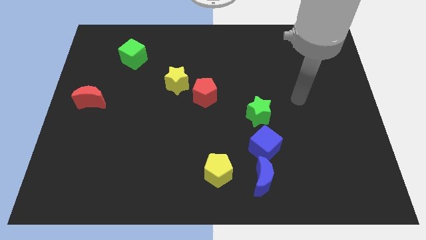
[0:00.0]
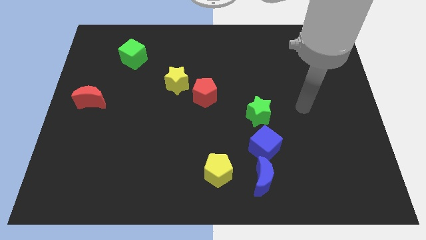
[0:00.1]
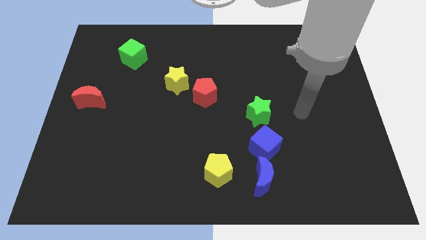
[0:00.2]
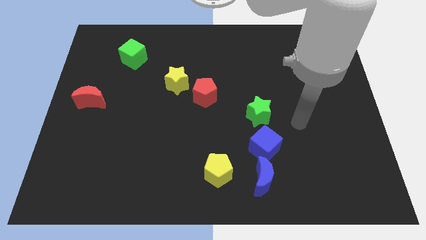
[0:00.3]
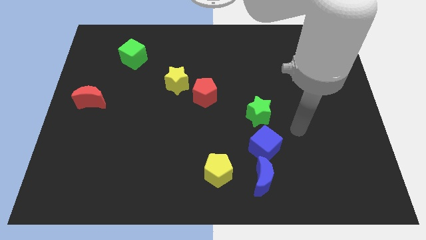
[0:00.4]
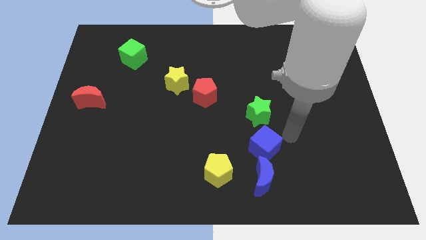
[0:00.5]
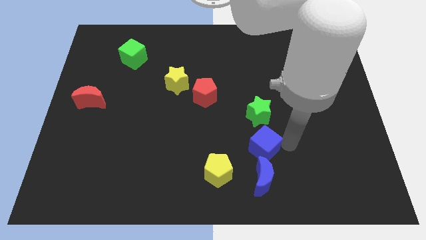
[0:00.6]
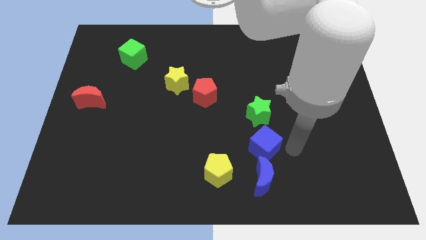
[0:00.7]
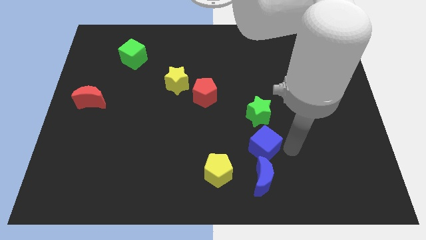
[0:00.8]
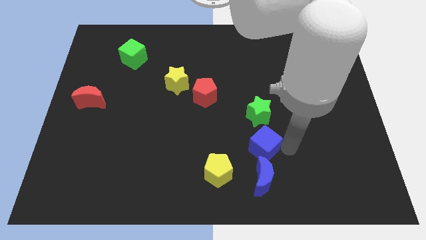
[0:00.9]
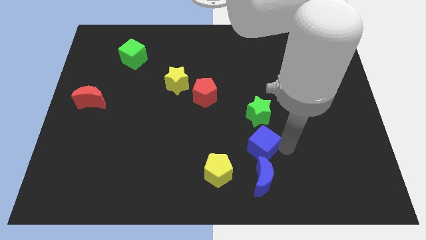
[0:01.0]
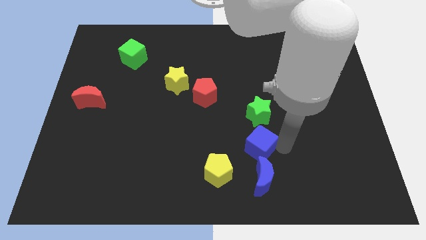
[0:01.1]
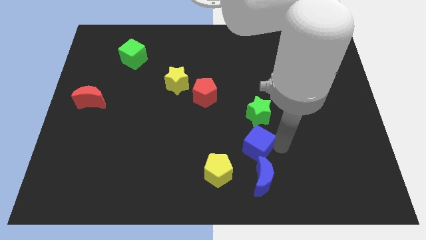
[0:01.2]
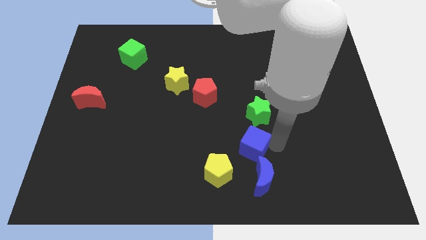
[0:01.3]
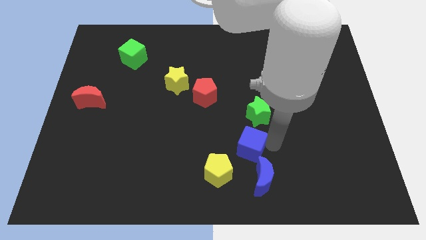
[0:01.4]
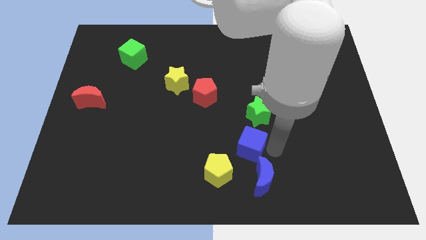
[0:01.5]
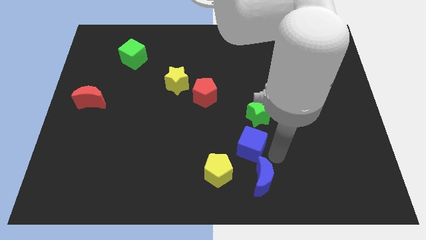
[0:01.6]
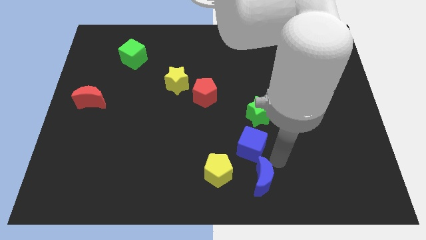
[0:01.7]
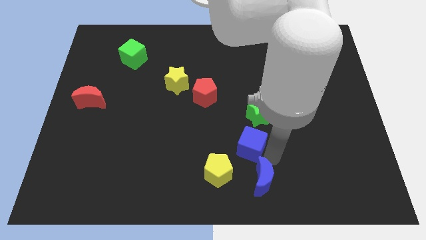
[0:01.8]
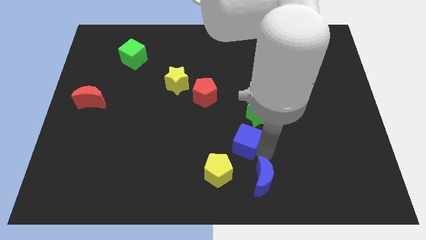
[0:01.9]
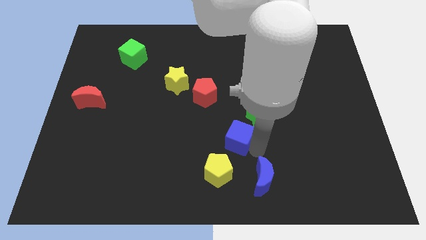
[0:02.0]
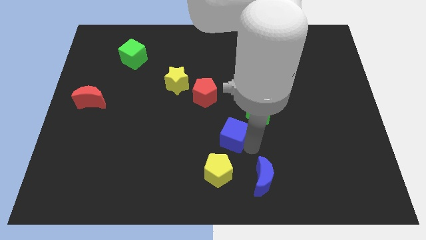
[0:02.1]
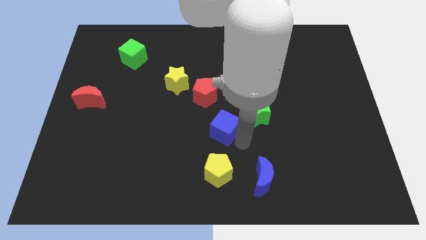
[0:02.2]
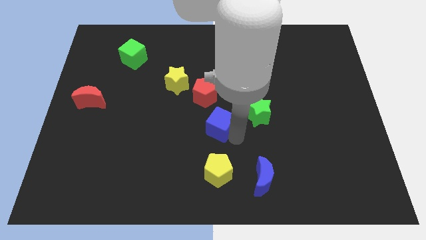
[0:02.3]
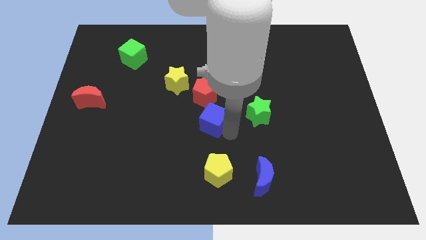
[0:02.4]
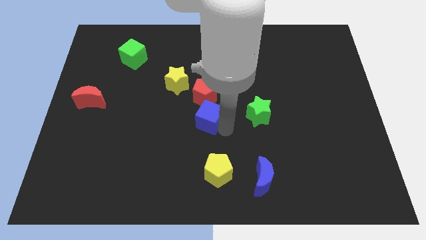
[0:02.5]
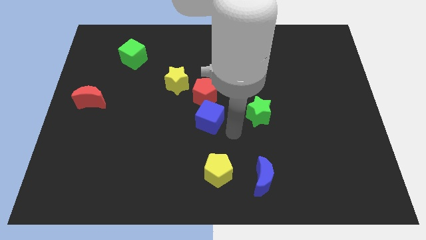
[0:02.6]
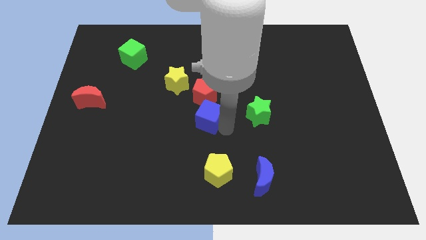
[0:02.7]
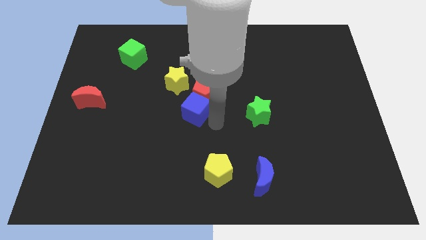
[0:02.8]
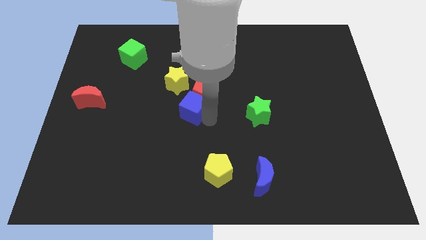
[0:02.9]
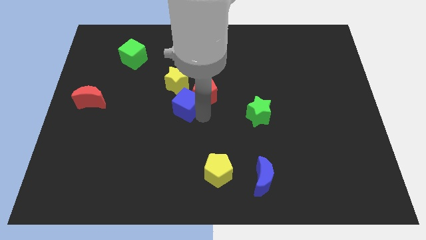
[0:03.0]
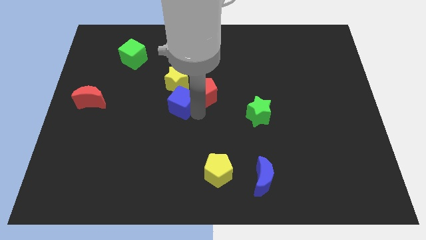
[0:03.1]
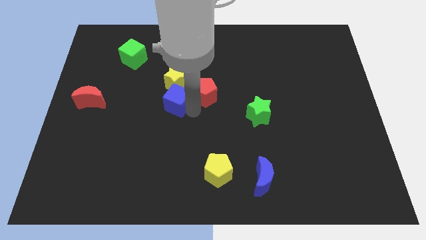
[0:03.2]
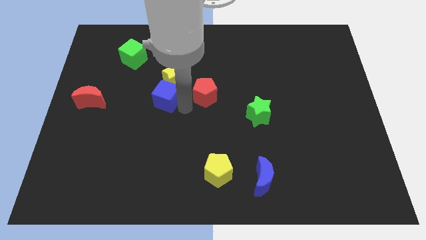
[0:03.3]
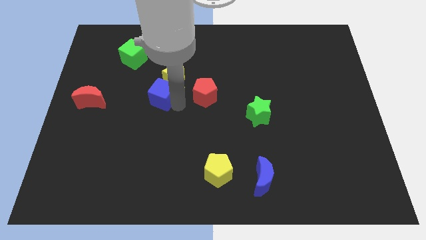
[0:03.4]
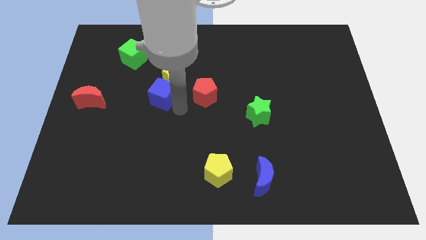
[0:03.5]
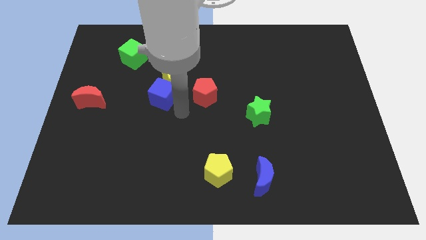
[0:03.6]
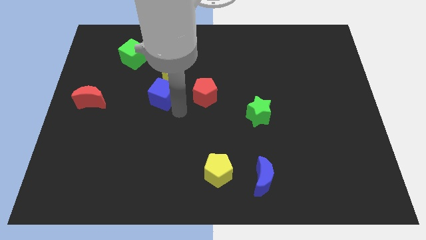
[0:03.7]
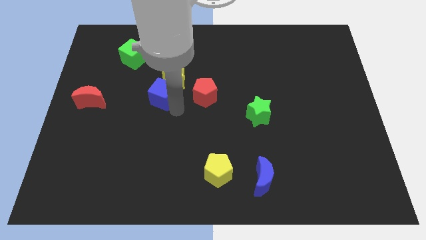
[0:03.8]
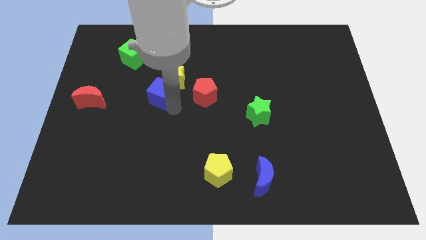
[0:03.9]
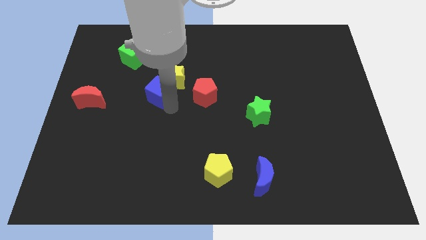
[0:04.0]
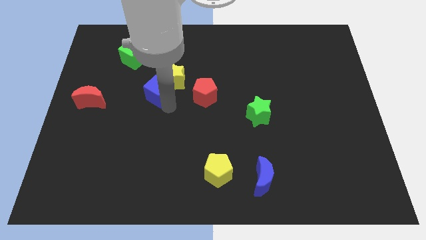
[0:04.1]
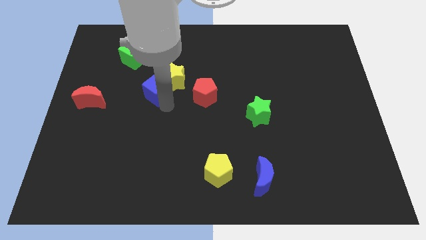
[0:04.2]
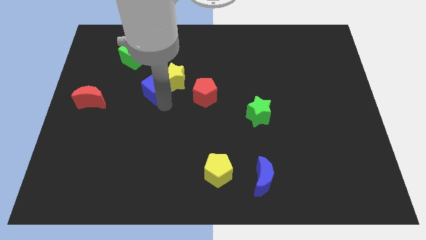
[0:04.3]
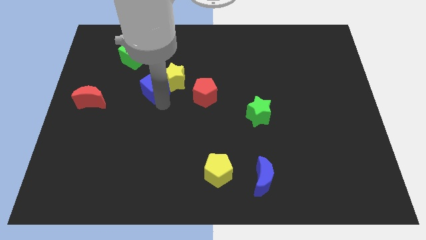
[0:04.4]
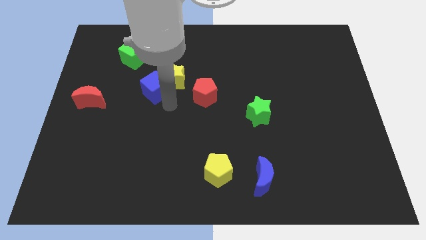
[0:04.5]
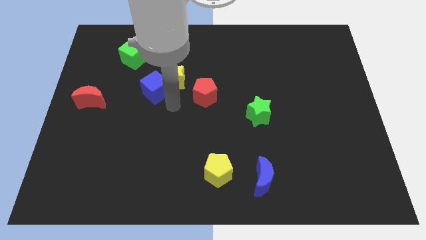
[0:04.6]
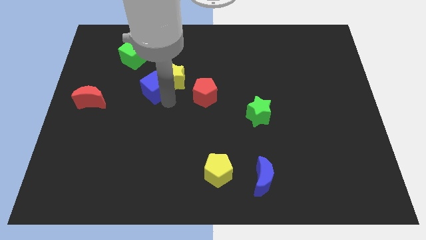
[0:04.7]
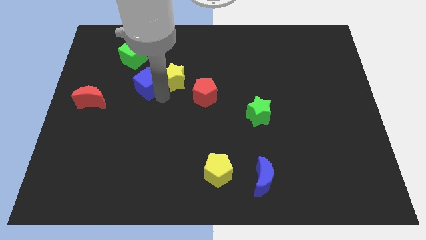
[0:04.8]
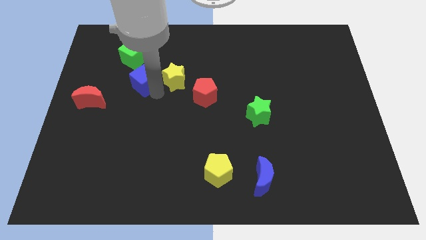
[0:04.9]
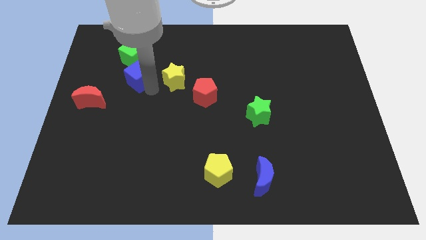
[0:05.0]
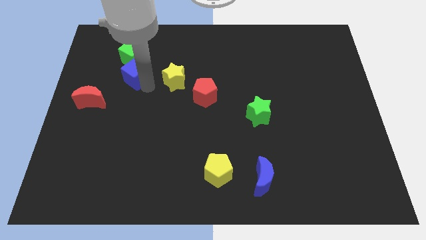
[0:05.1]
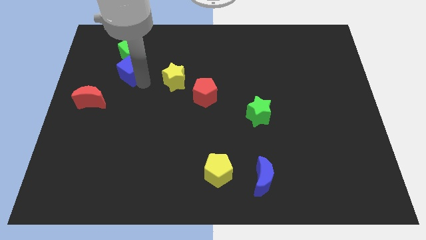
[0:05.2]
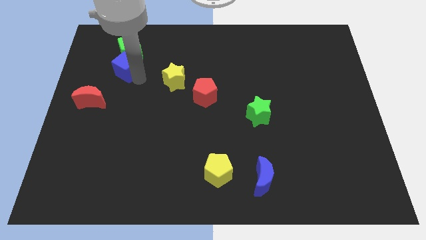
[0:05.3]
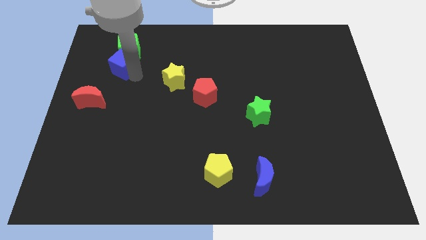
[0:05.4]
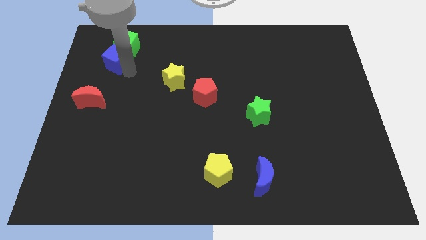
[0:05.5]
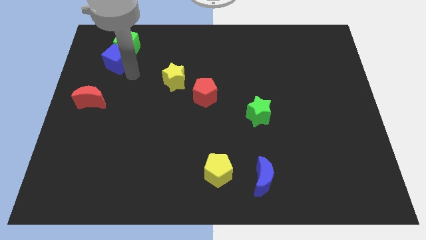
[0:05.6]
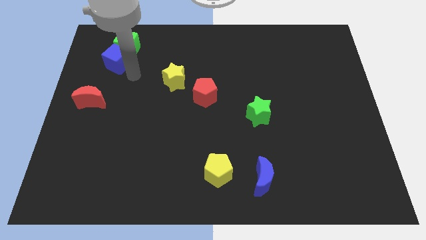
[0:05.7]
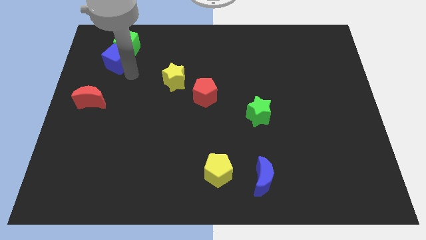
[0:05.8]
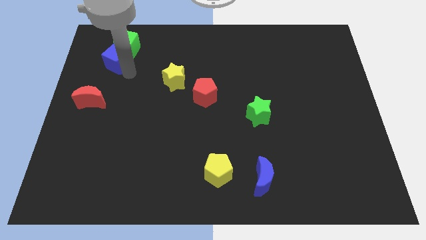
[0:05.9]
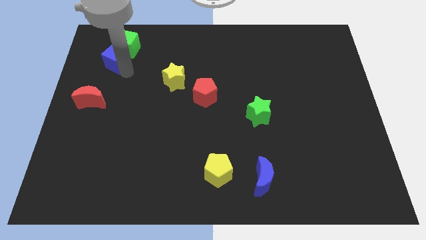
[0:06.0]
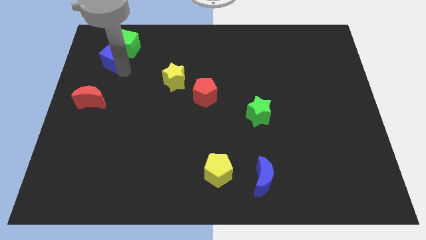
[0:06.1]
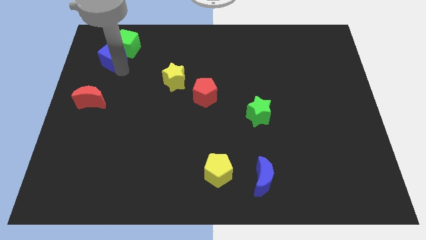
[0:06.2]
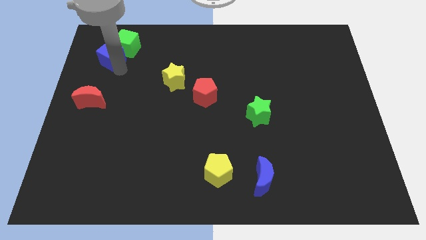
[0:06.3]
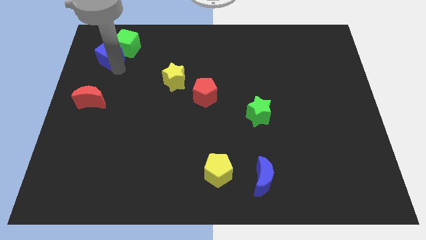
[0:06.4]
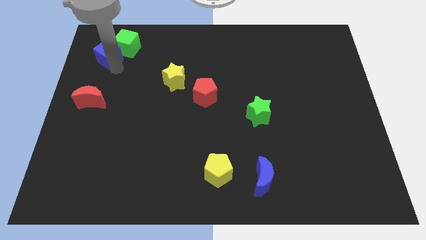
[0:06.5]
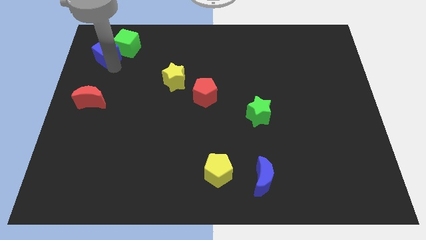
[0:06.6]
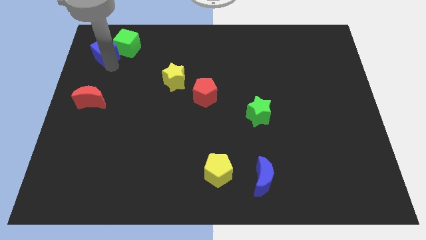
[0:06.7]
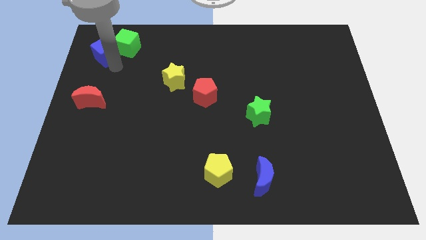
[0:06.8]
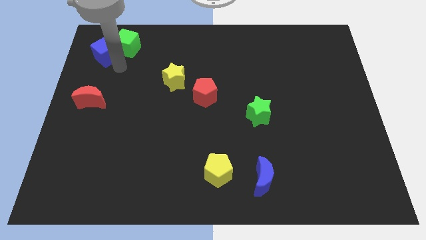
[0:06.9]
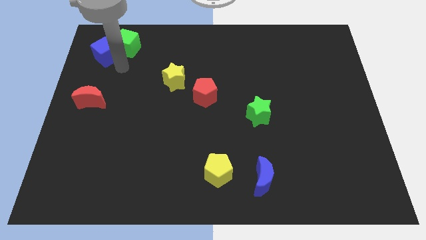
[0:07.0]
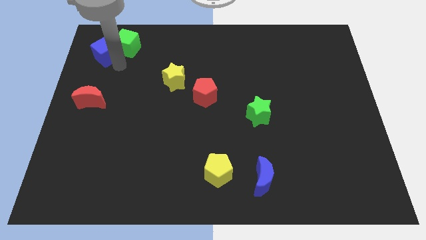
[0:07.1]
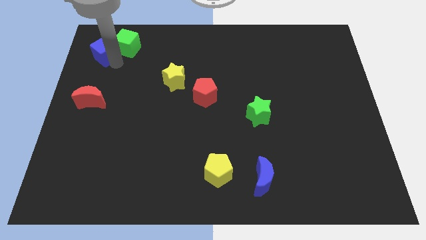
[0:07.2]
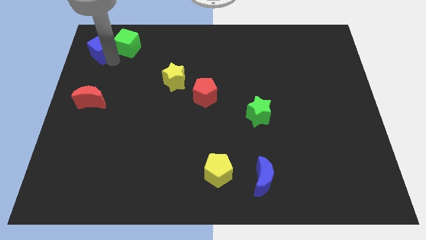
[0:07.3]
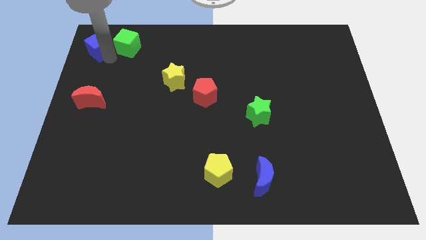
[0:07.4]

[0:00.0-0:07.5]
push the blue cube to the top left
